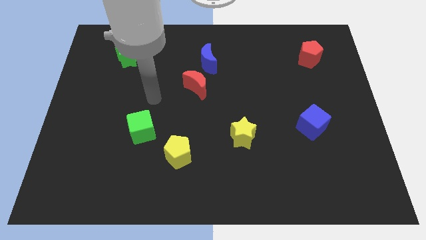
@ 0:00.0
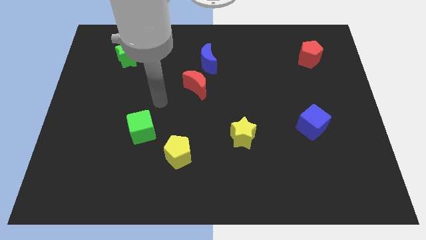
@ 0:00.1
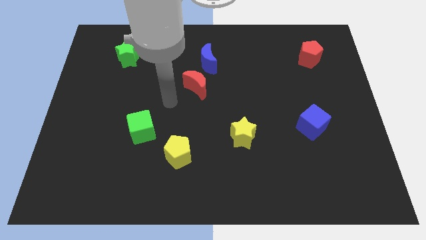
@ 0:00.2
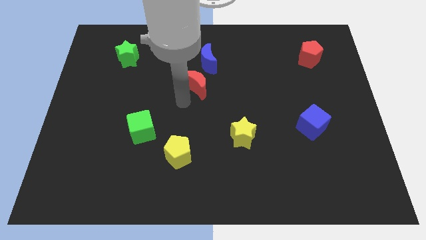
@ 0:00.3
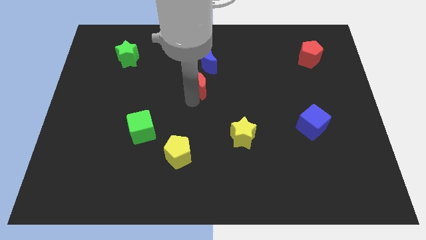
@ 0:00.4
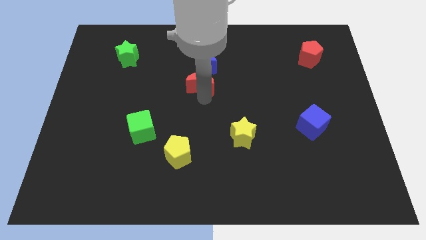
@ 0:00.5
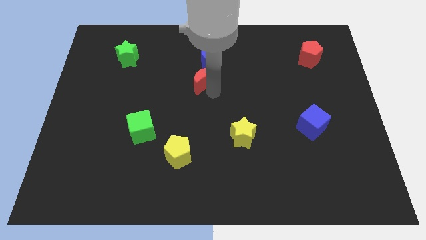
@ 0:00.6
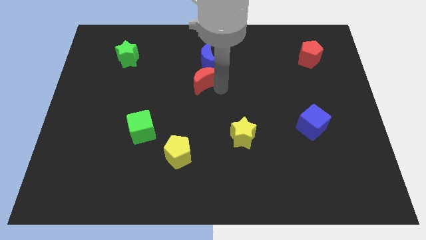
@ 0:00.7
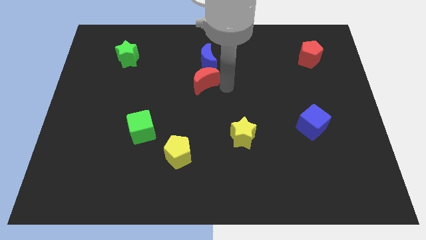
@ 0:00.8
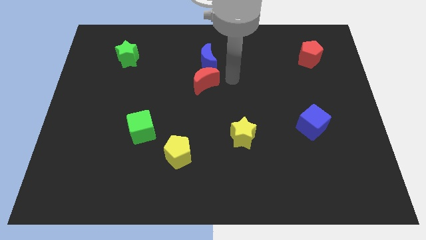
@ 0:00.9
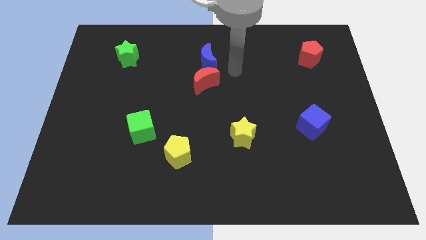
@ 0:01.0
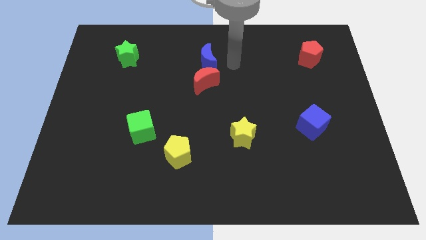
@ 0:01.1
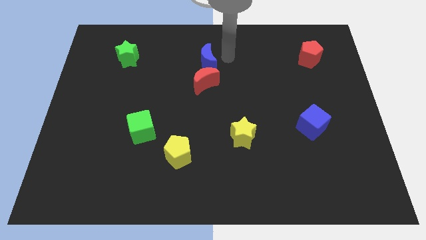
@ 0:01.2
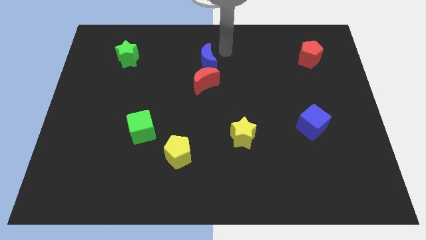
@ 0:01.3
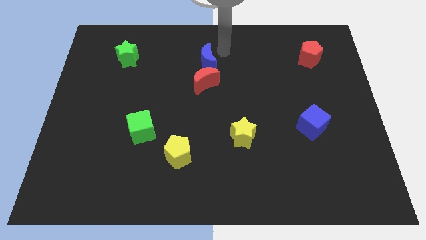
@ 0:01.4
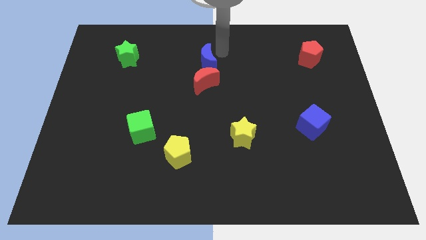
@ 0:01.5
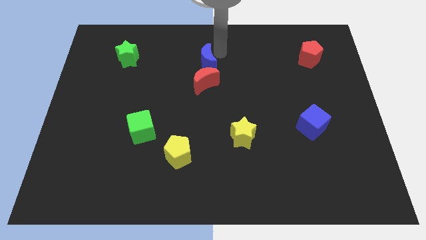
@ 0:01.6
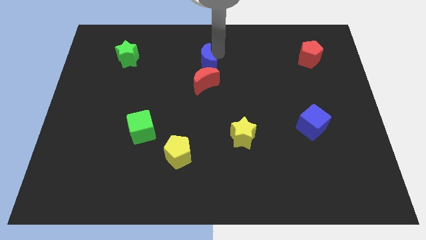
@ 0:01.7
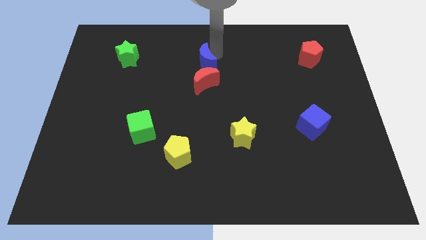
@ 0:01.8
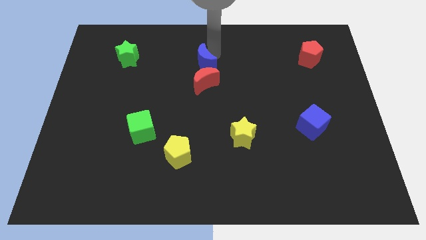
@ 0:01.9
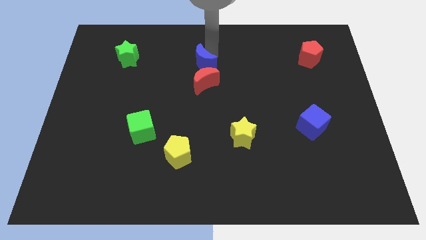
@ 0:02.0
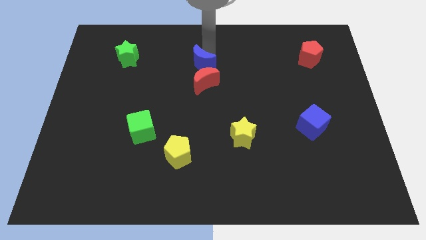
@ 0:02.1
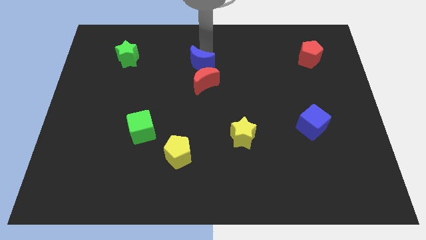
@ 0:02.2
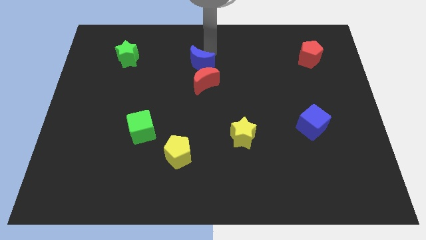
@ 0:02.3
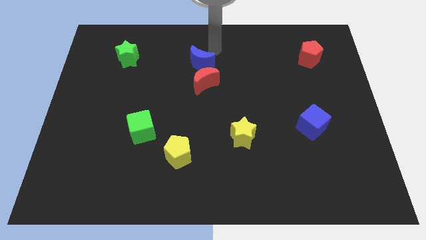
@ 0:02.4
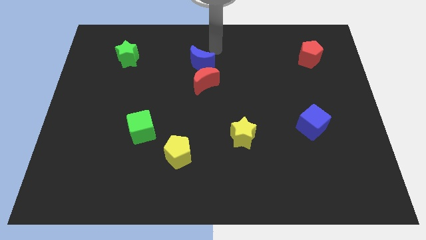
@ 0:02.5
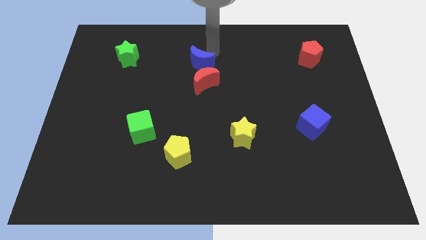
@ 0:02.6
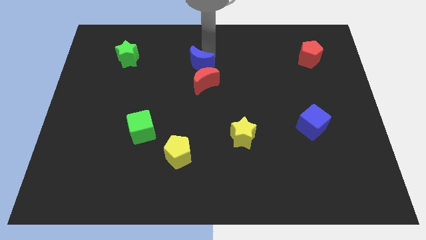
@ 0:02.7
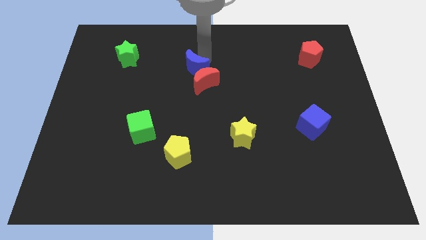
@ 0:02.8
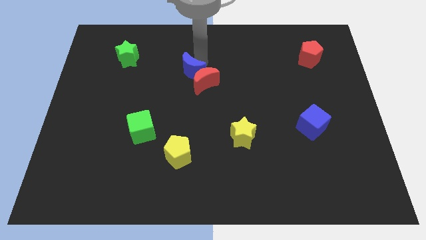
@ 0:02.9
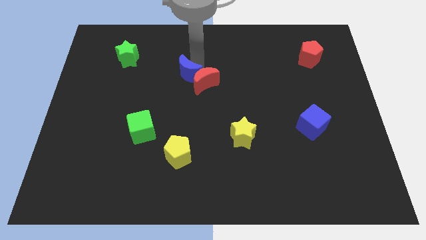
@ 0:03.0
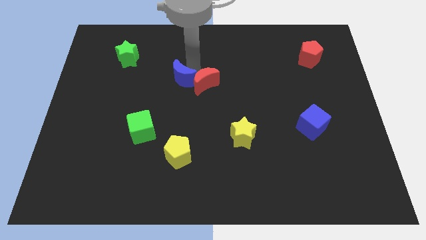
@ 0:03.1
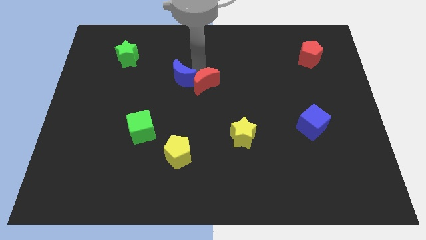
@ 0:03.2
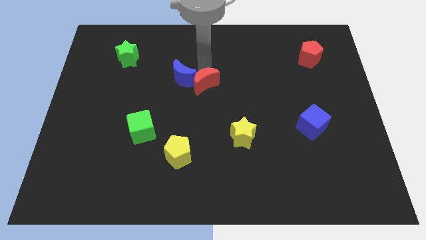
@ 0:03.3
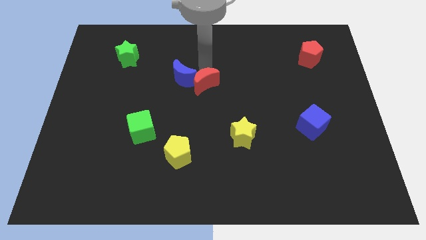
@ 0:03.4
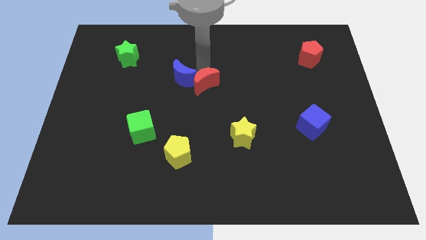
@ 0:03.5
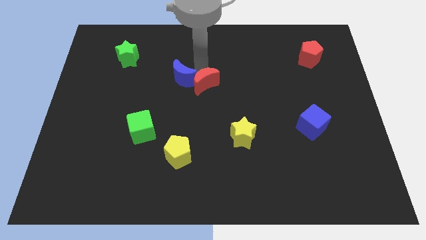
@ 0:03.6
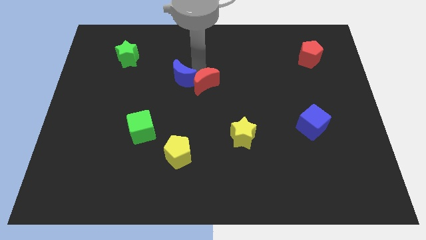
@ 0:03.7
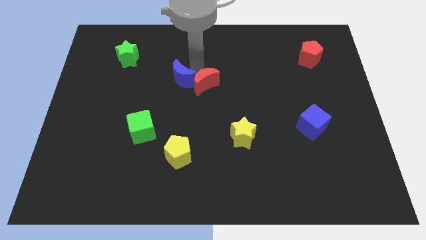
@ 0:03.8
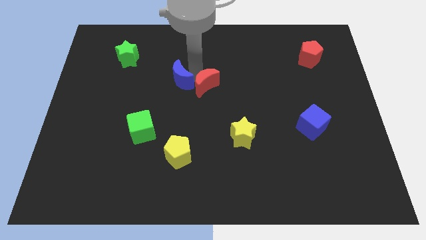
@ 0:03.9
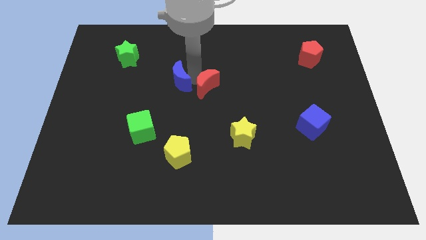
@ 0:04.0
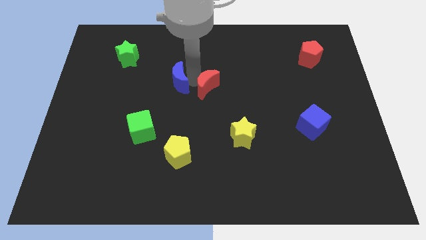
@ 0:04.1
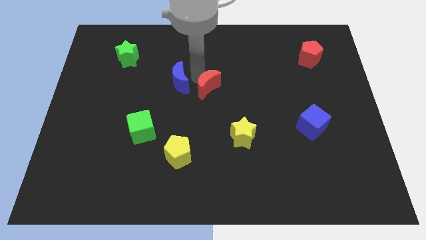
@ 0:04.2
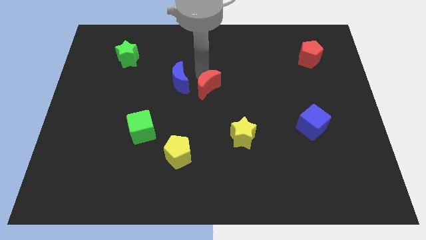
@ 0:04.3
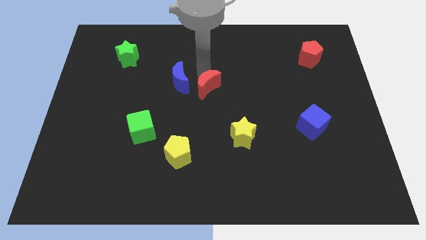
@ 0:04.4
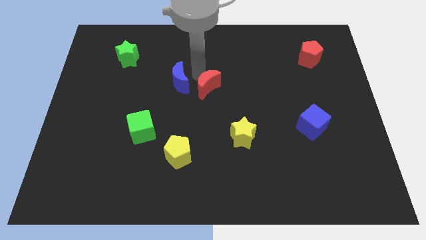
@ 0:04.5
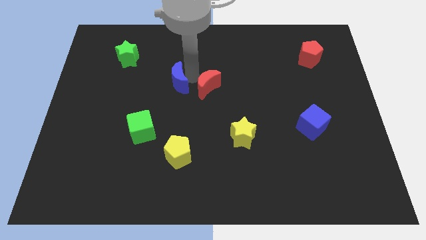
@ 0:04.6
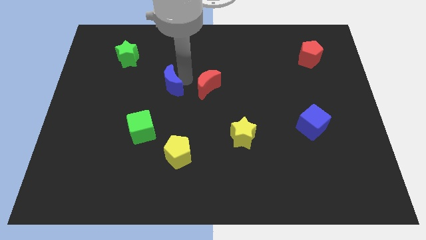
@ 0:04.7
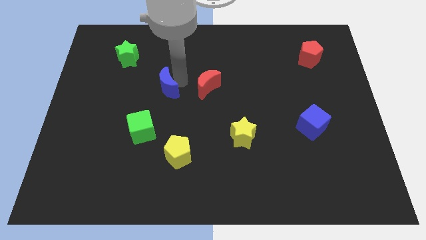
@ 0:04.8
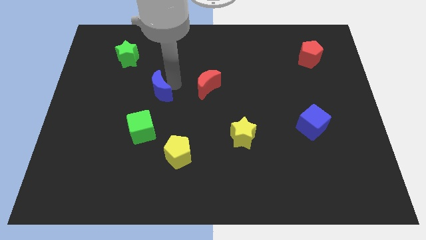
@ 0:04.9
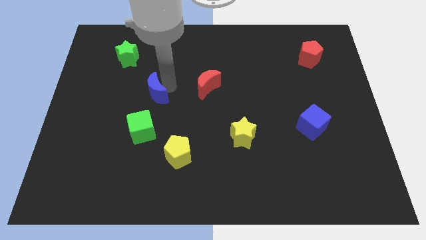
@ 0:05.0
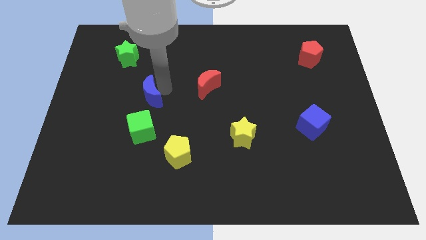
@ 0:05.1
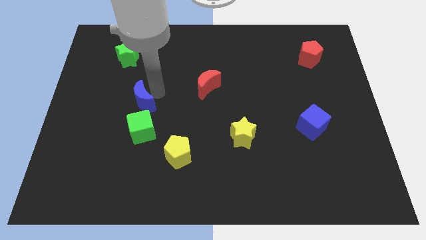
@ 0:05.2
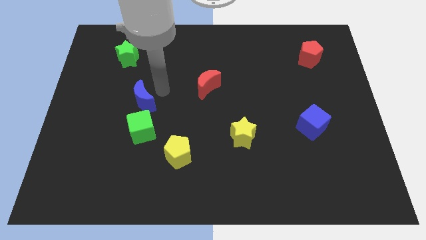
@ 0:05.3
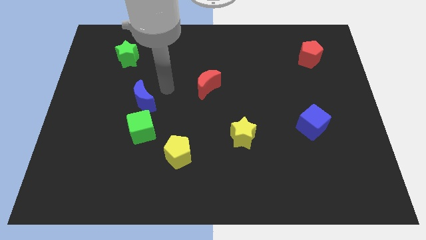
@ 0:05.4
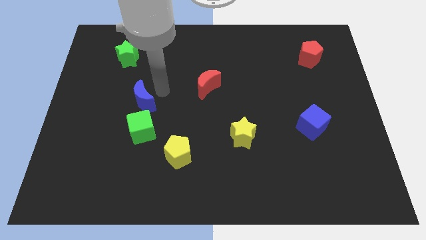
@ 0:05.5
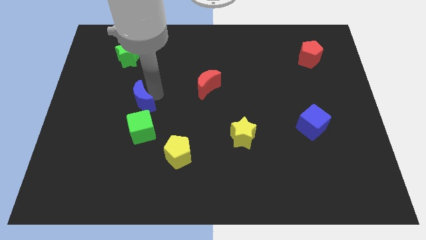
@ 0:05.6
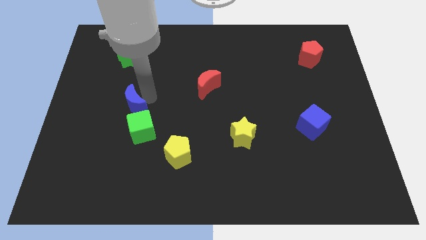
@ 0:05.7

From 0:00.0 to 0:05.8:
put the blue moon diagonally up and to the left of the green cube

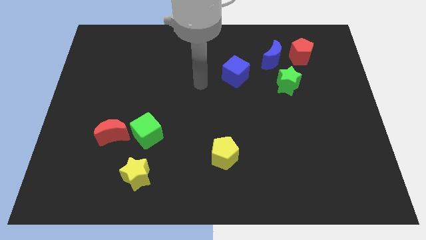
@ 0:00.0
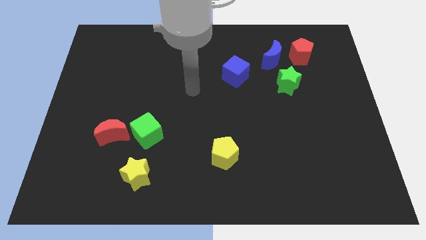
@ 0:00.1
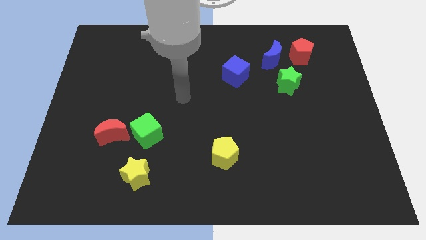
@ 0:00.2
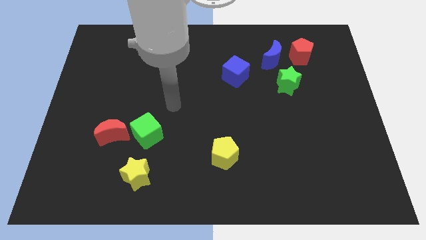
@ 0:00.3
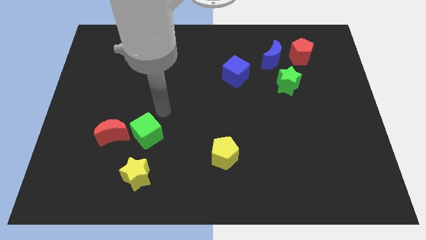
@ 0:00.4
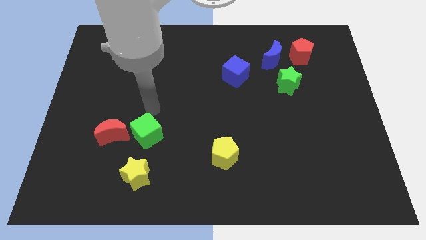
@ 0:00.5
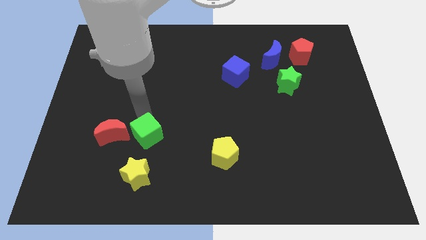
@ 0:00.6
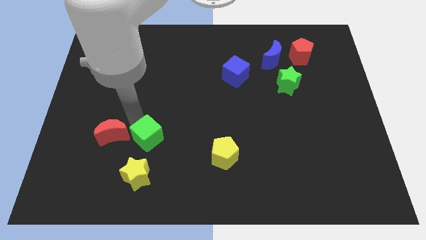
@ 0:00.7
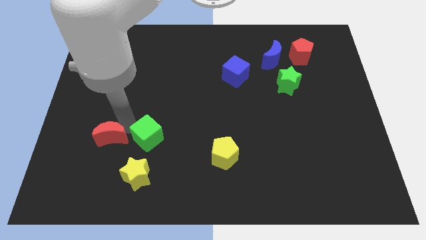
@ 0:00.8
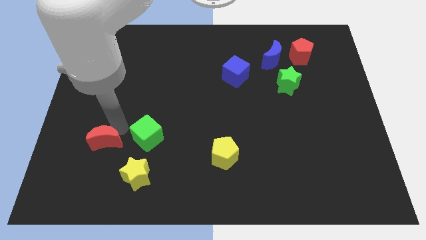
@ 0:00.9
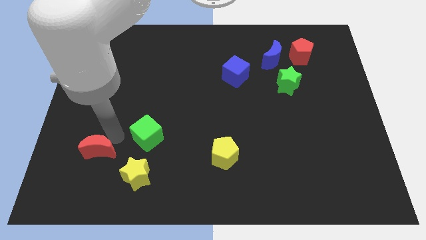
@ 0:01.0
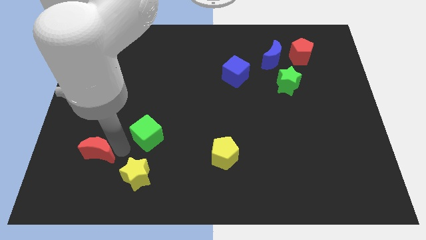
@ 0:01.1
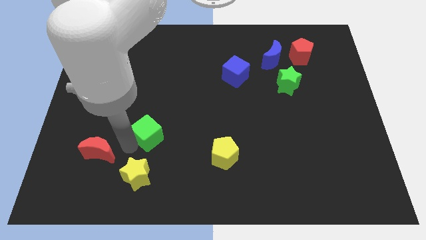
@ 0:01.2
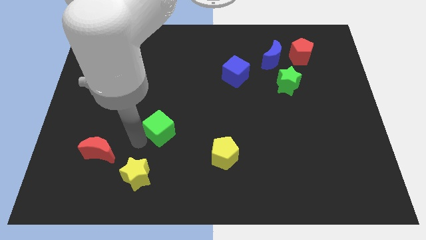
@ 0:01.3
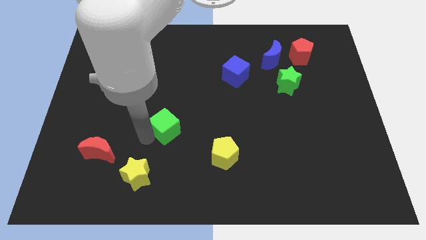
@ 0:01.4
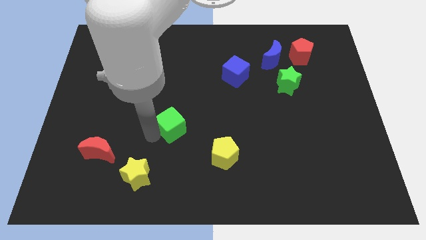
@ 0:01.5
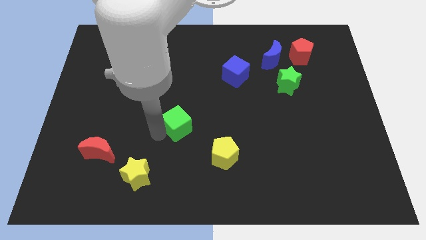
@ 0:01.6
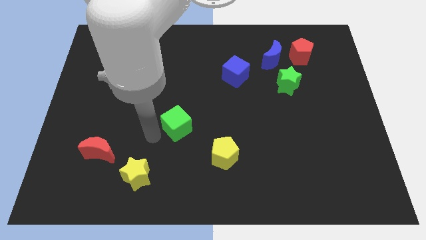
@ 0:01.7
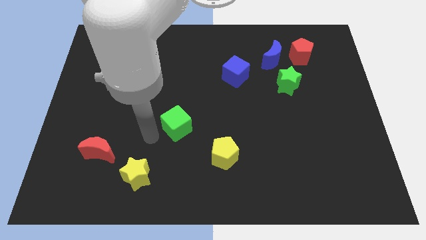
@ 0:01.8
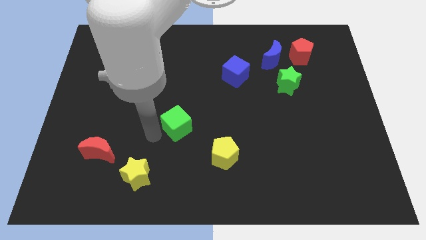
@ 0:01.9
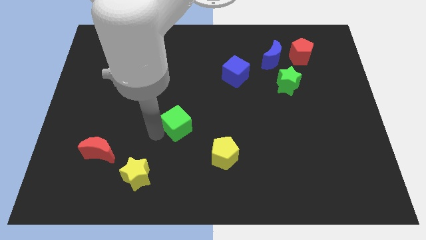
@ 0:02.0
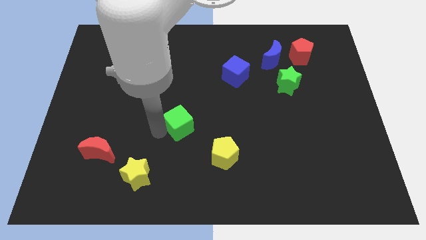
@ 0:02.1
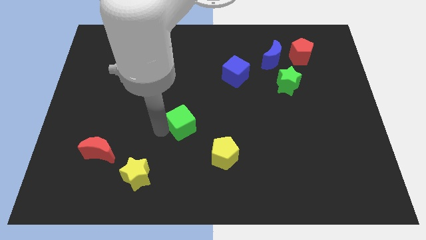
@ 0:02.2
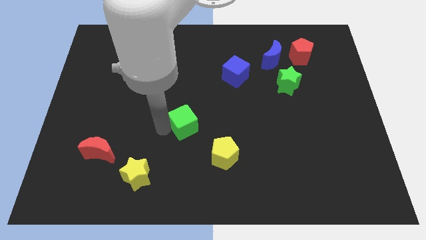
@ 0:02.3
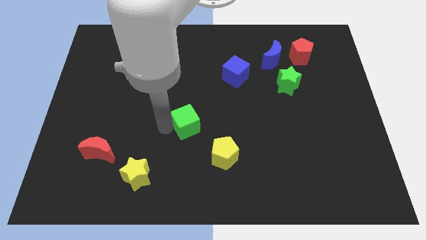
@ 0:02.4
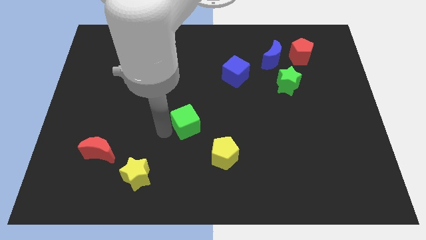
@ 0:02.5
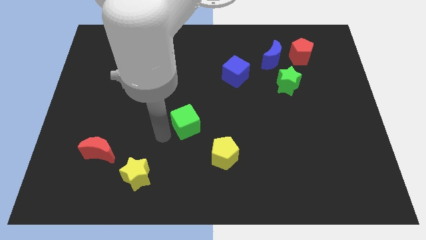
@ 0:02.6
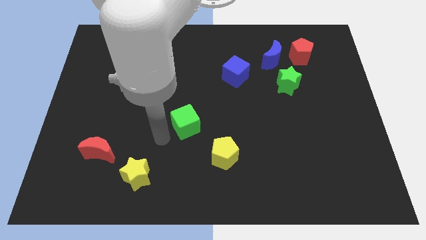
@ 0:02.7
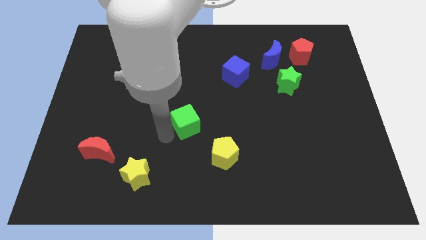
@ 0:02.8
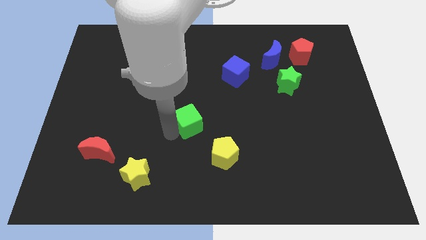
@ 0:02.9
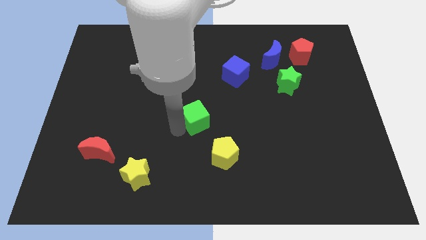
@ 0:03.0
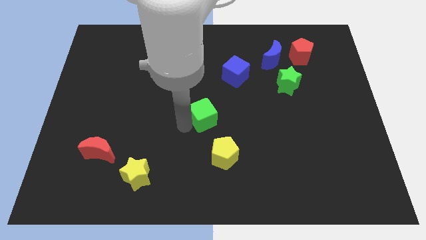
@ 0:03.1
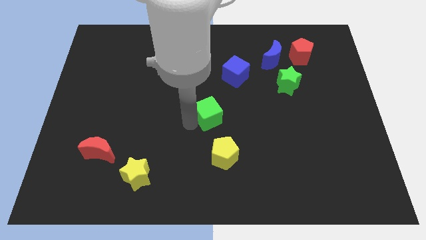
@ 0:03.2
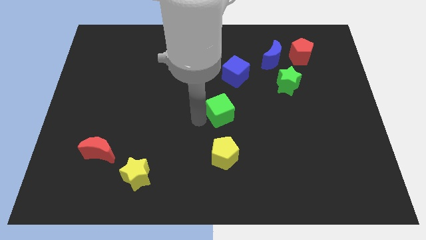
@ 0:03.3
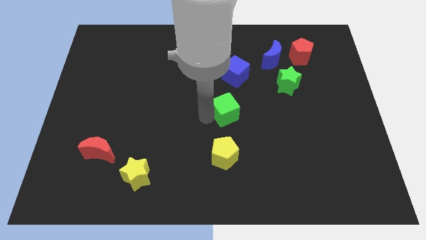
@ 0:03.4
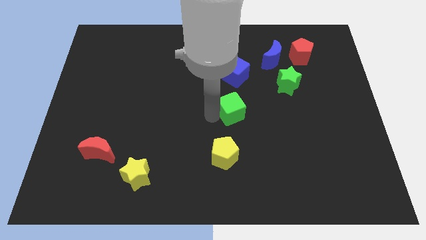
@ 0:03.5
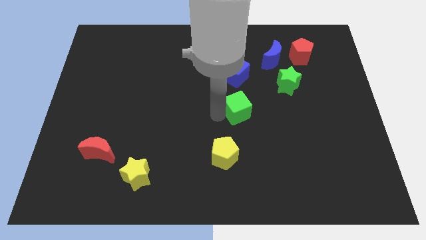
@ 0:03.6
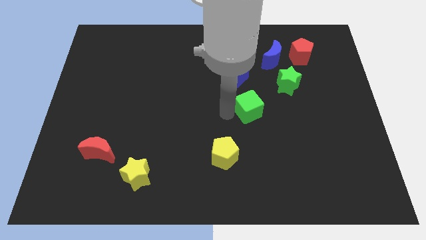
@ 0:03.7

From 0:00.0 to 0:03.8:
put the green cube to the bottom left of the green star
